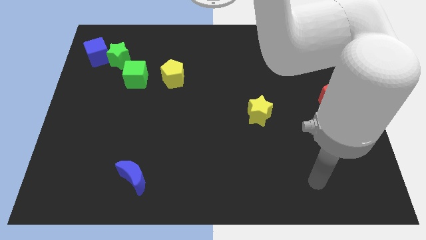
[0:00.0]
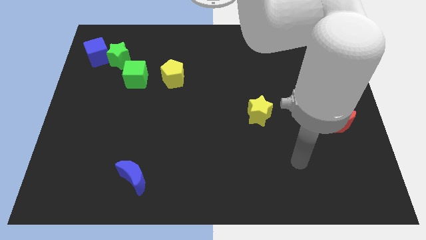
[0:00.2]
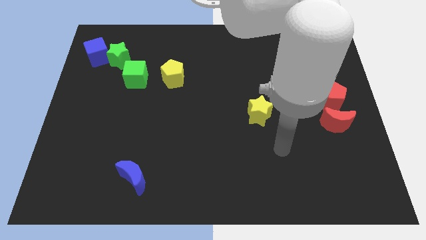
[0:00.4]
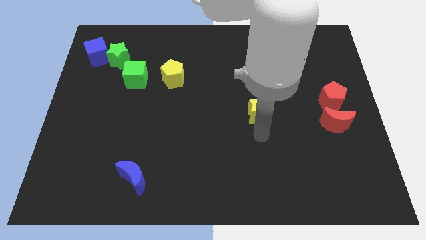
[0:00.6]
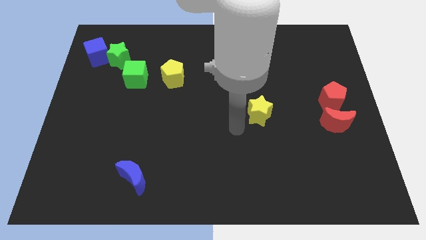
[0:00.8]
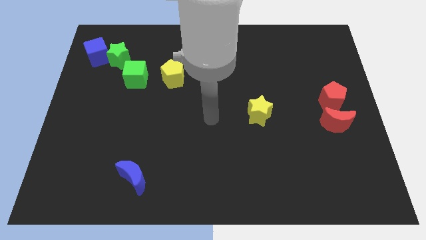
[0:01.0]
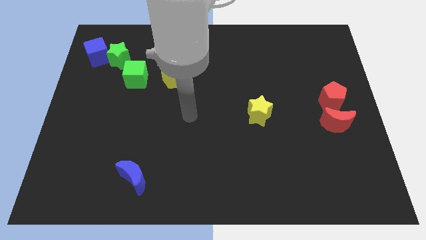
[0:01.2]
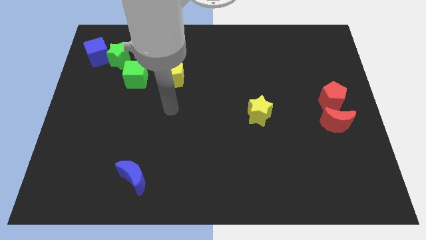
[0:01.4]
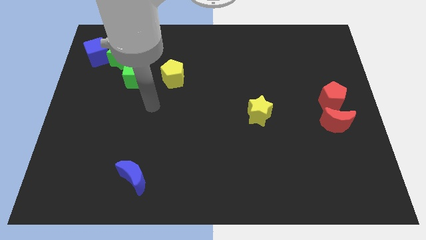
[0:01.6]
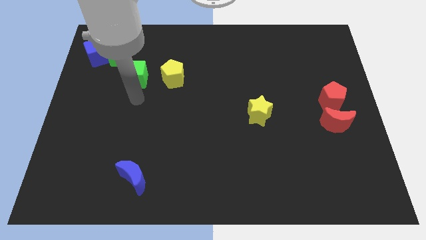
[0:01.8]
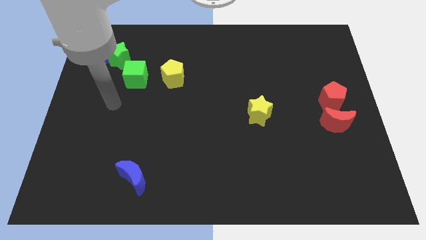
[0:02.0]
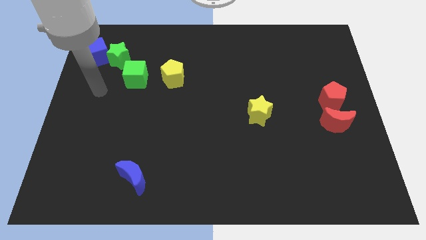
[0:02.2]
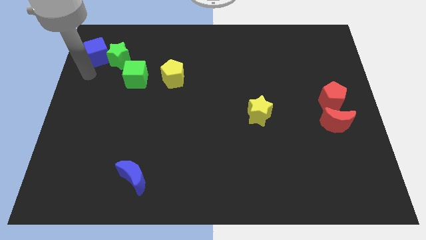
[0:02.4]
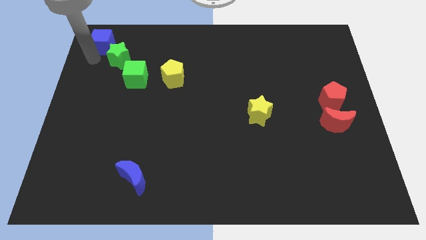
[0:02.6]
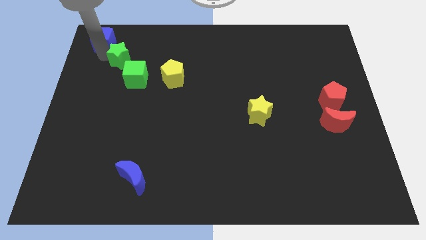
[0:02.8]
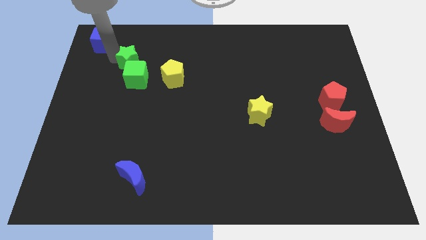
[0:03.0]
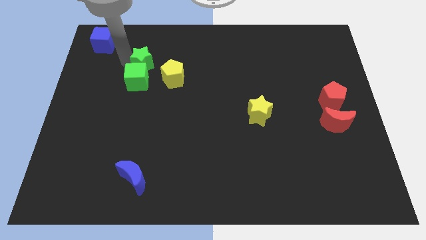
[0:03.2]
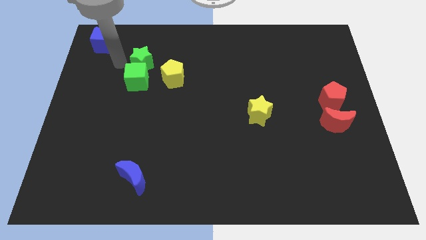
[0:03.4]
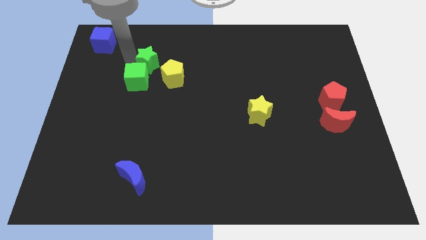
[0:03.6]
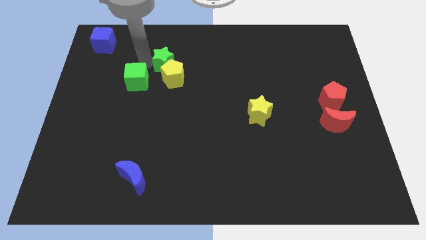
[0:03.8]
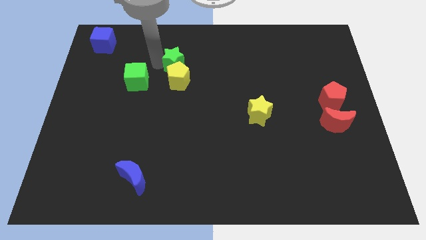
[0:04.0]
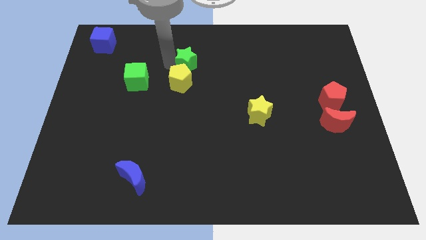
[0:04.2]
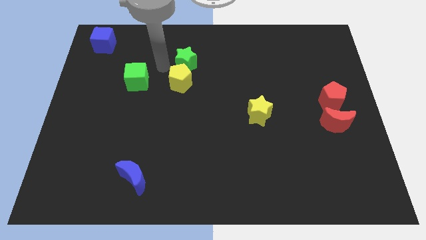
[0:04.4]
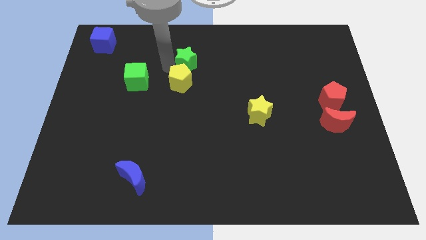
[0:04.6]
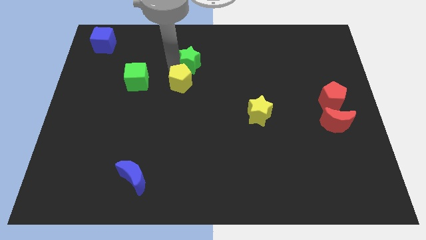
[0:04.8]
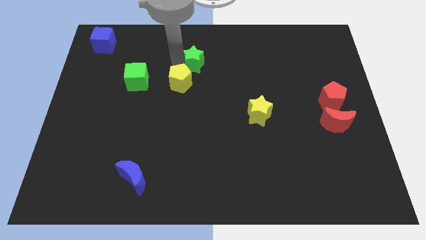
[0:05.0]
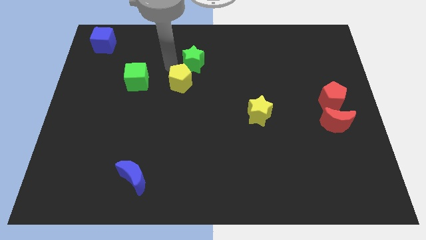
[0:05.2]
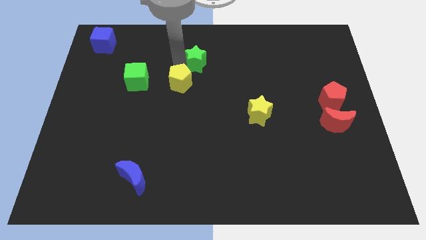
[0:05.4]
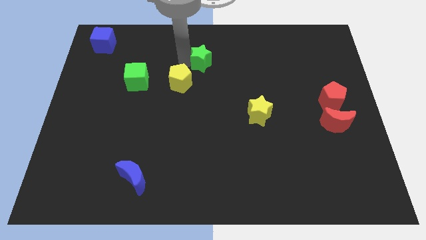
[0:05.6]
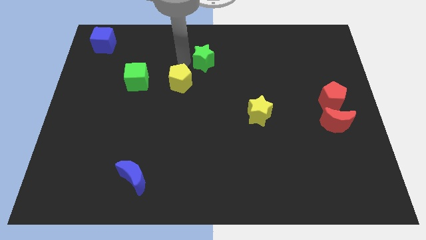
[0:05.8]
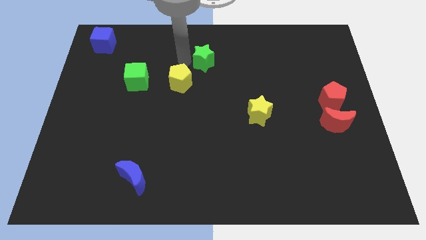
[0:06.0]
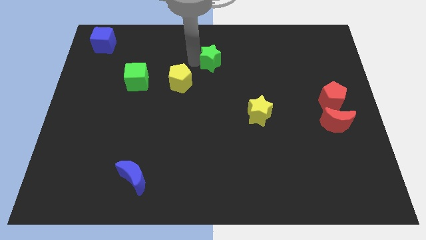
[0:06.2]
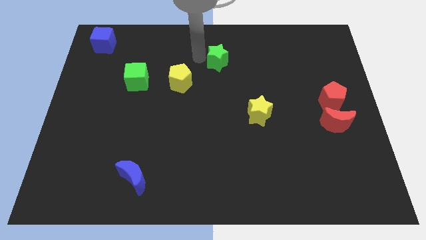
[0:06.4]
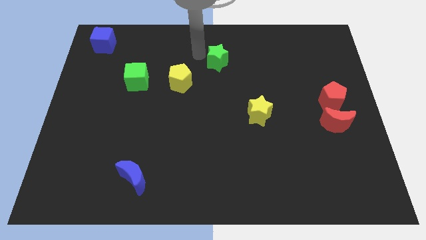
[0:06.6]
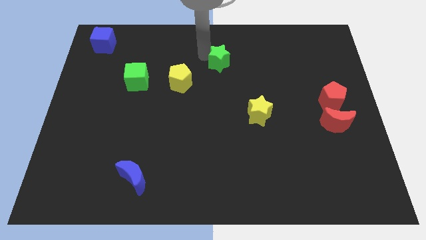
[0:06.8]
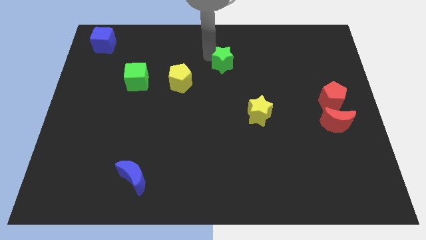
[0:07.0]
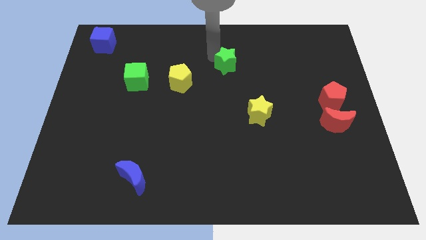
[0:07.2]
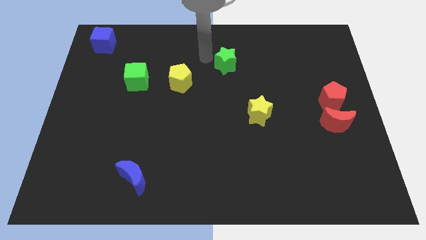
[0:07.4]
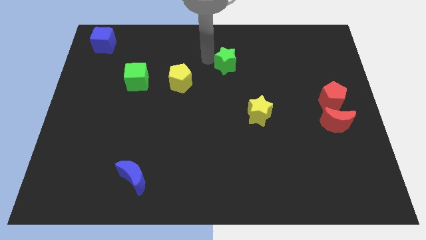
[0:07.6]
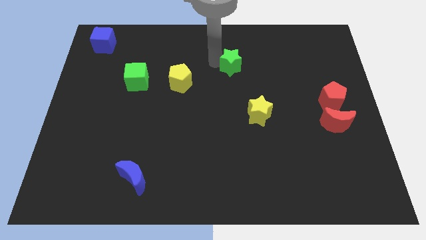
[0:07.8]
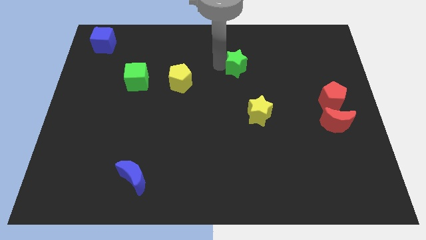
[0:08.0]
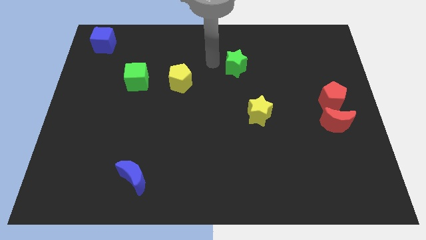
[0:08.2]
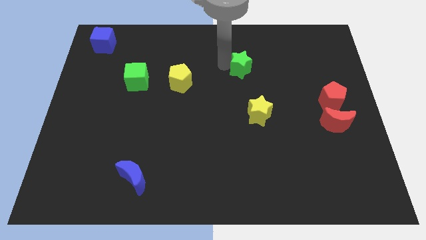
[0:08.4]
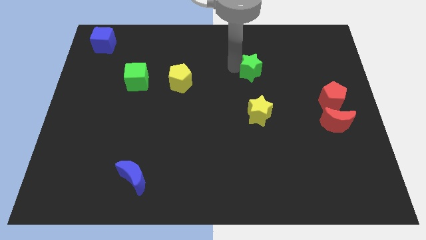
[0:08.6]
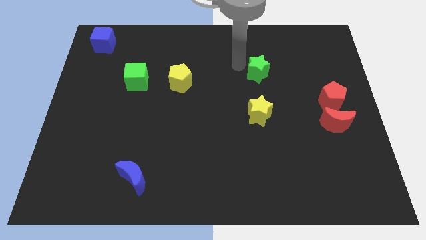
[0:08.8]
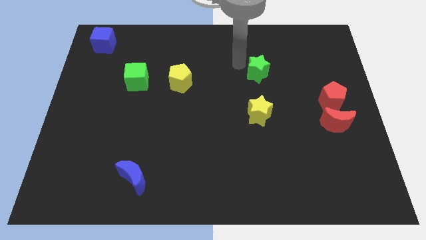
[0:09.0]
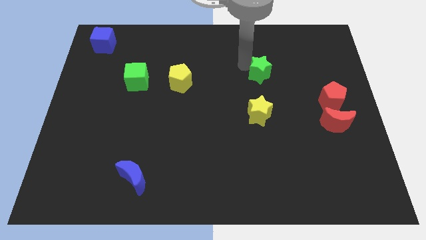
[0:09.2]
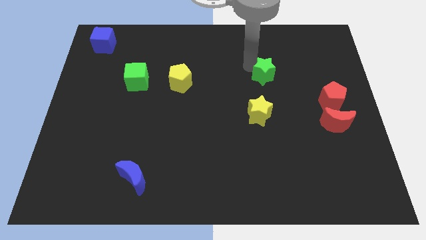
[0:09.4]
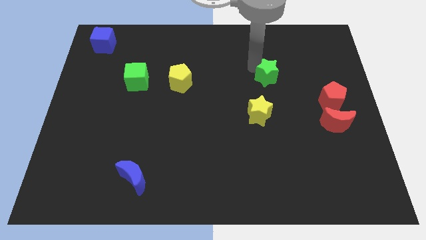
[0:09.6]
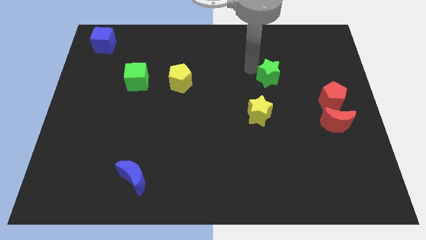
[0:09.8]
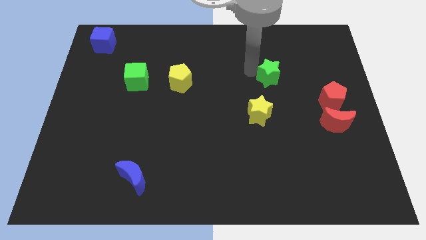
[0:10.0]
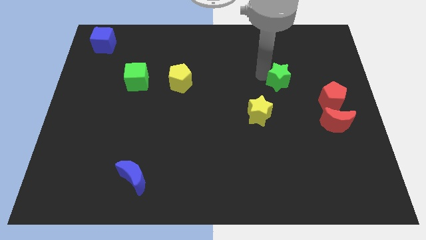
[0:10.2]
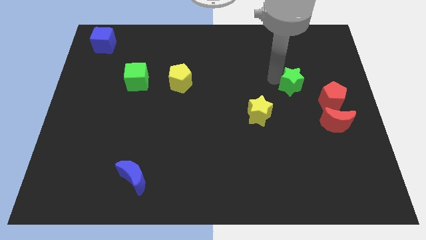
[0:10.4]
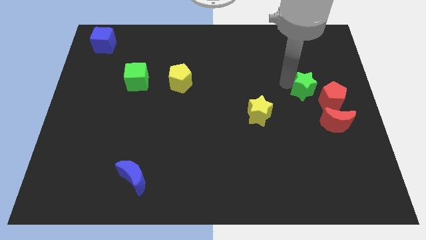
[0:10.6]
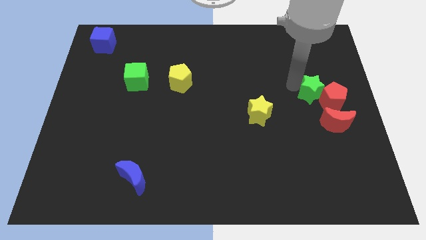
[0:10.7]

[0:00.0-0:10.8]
slide the green star next to the red pentagon

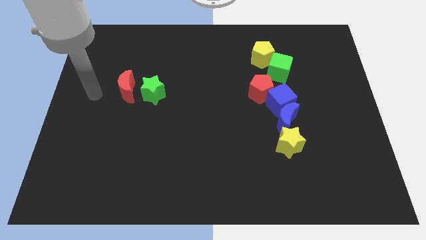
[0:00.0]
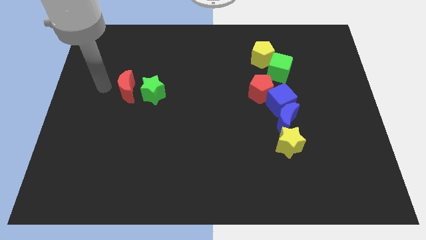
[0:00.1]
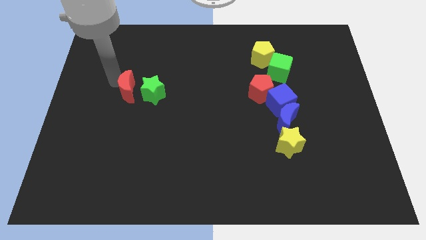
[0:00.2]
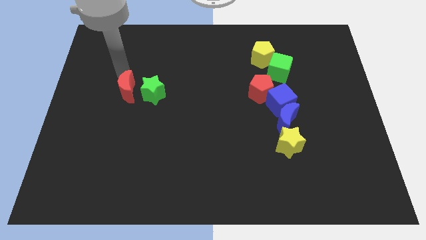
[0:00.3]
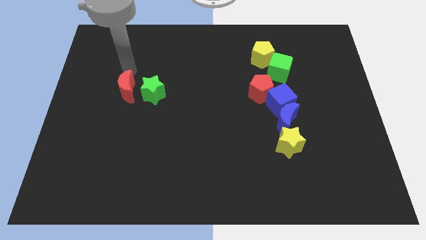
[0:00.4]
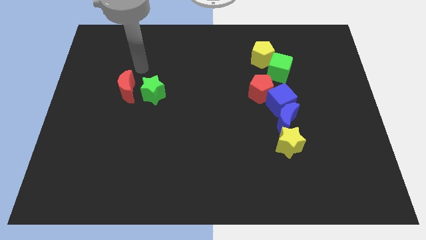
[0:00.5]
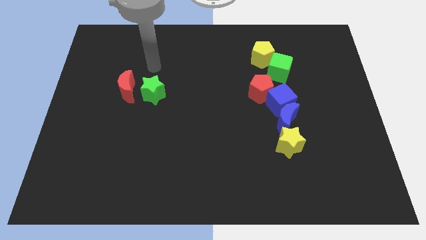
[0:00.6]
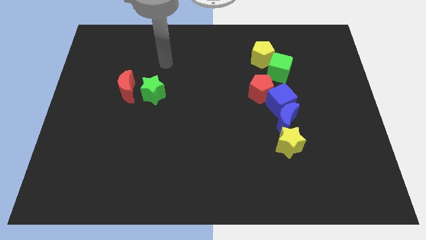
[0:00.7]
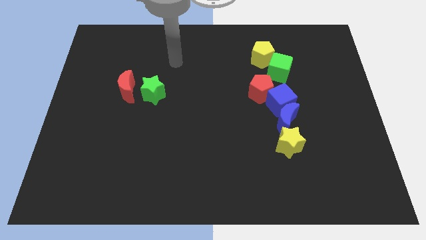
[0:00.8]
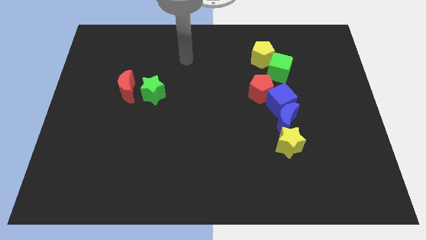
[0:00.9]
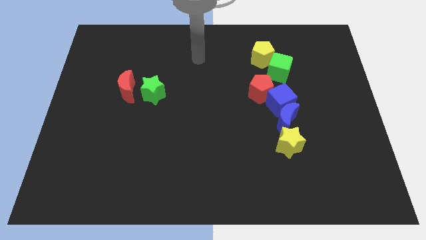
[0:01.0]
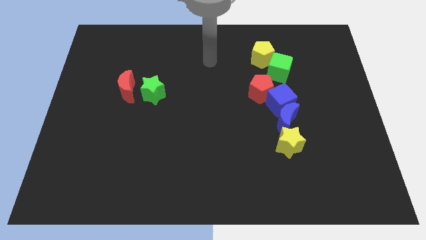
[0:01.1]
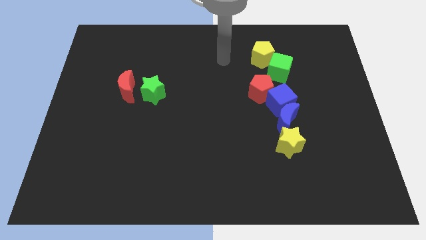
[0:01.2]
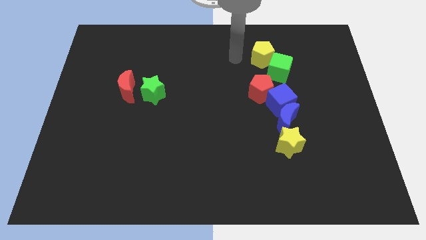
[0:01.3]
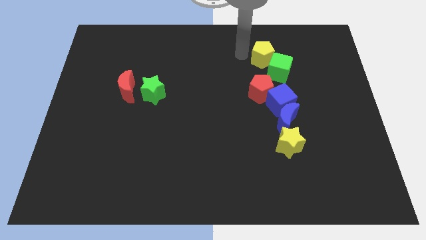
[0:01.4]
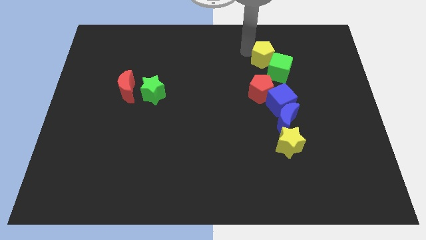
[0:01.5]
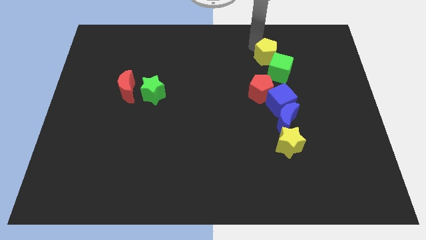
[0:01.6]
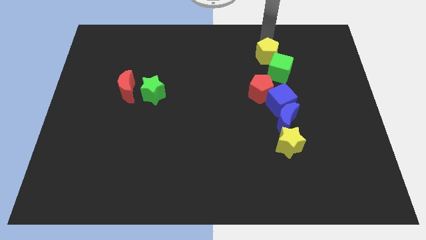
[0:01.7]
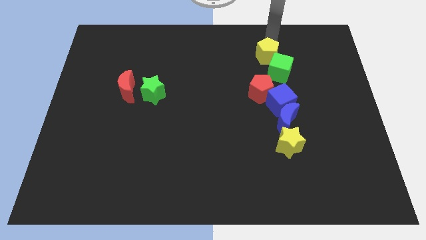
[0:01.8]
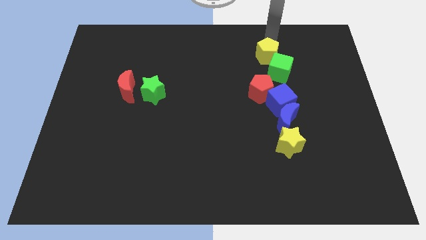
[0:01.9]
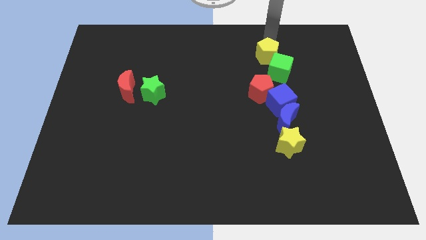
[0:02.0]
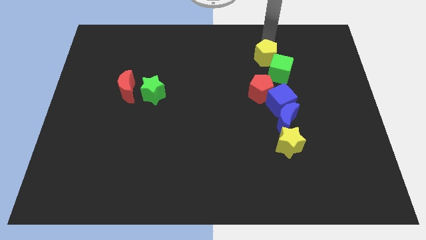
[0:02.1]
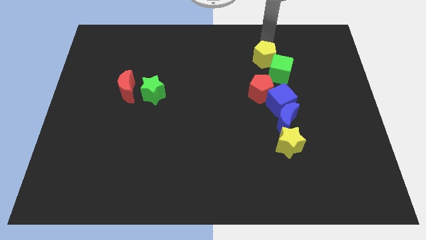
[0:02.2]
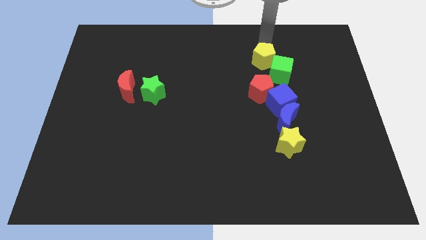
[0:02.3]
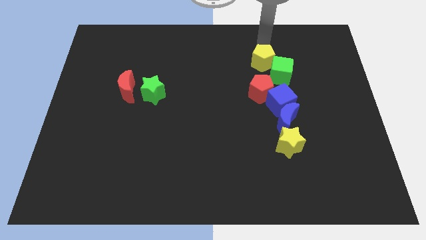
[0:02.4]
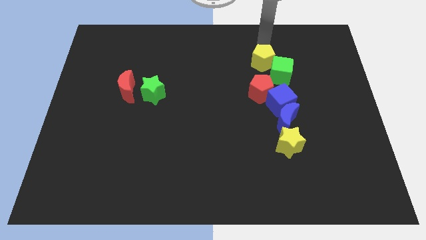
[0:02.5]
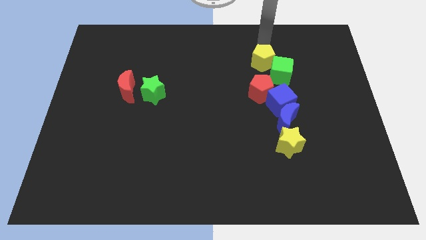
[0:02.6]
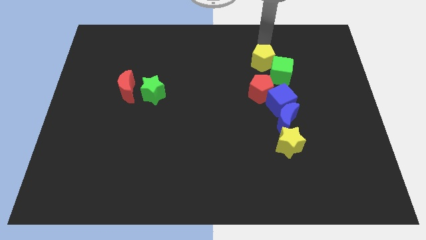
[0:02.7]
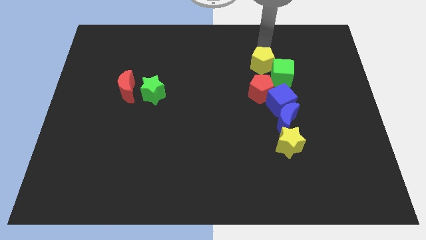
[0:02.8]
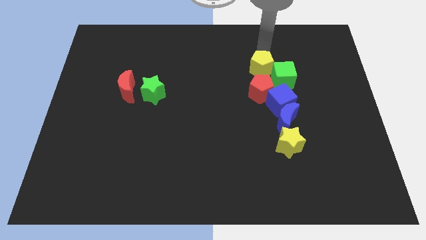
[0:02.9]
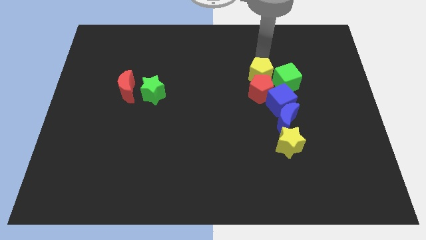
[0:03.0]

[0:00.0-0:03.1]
slide the yellow pentagon towards the red pentagon
